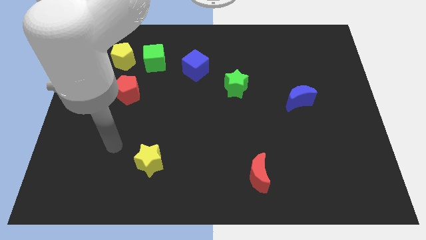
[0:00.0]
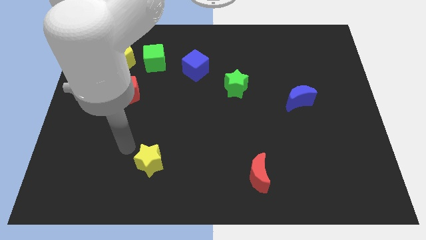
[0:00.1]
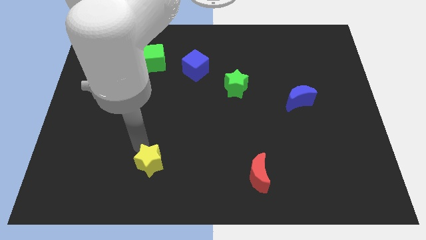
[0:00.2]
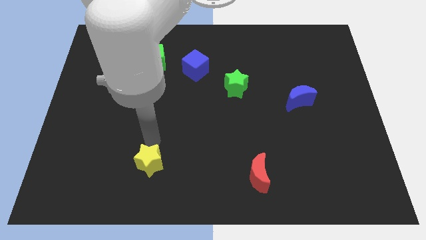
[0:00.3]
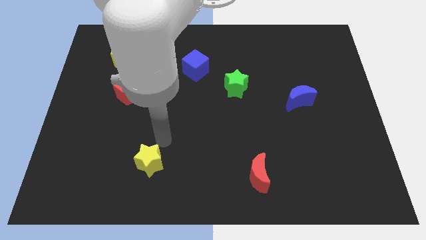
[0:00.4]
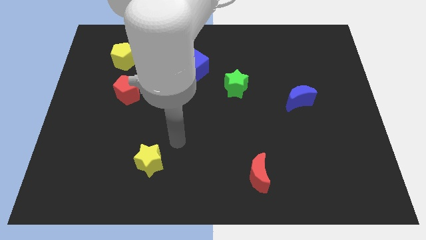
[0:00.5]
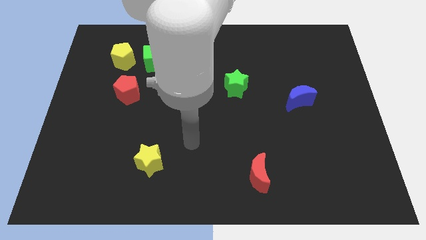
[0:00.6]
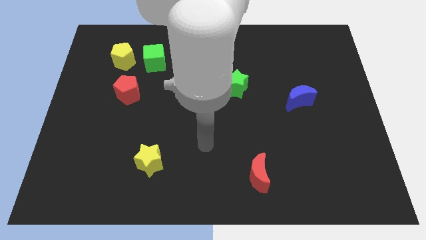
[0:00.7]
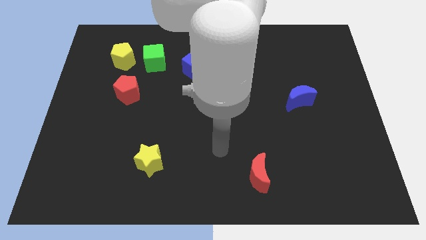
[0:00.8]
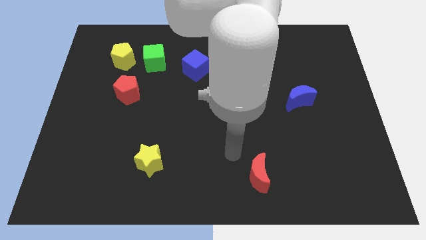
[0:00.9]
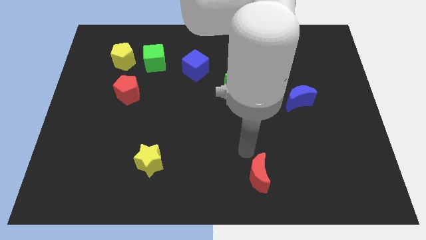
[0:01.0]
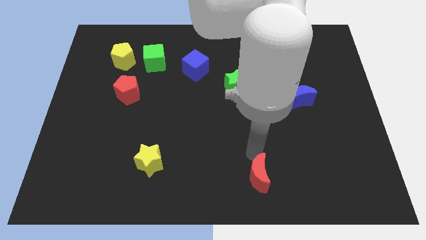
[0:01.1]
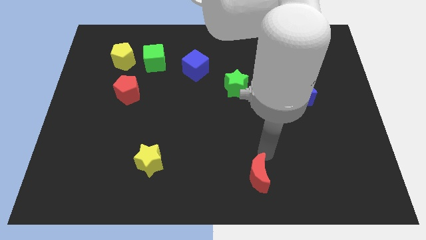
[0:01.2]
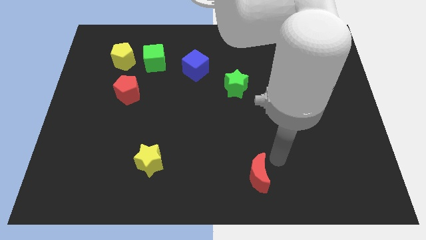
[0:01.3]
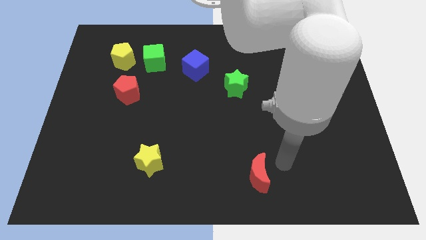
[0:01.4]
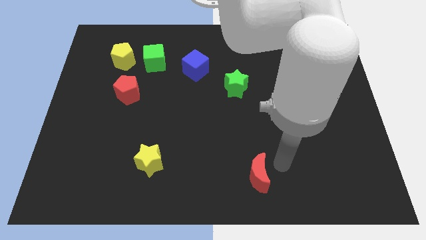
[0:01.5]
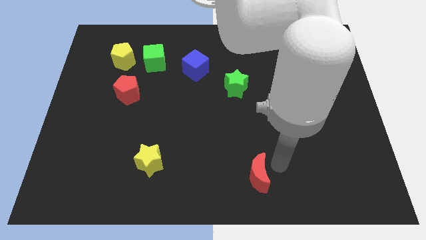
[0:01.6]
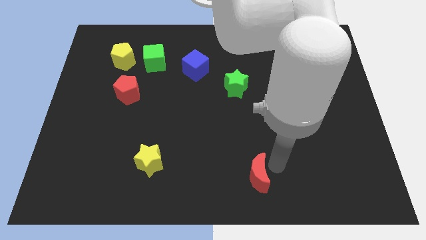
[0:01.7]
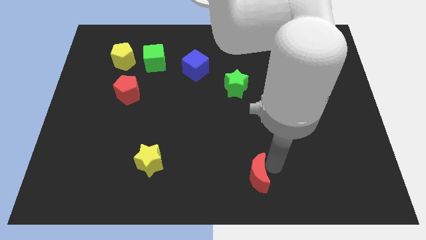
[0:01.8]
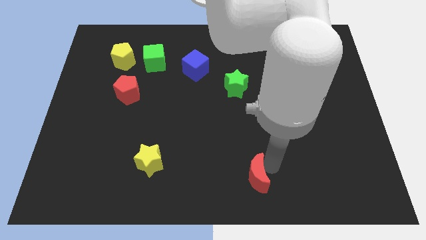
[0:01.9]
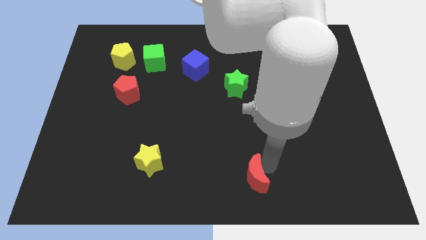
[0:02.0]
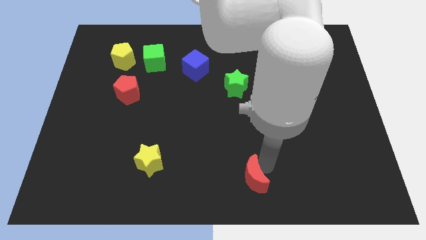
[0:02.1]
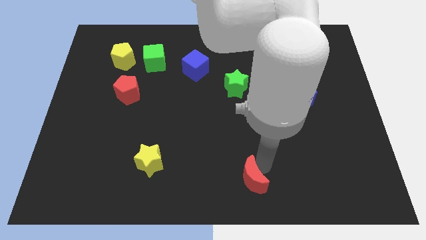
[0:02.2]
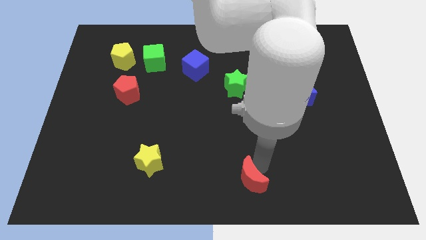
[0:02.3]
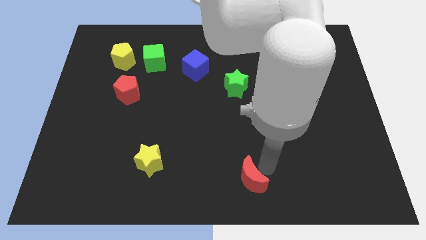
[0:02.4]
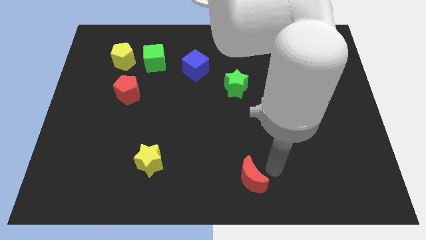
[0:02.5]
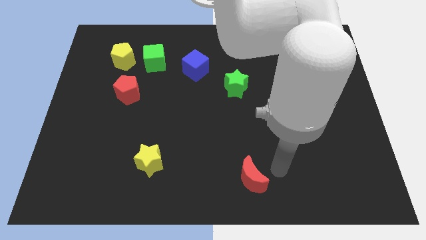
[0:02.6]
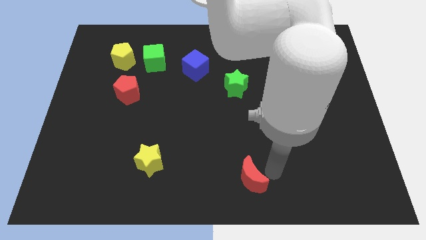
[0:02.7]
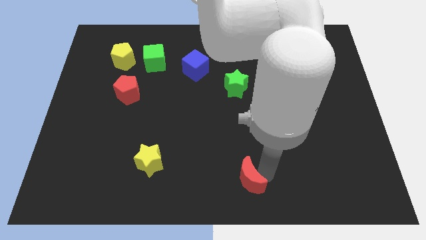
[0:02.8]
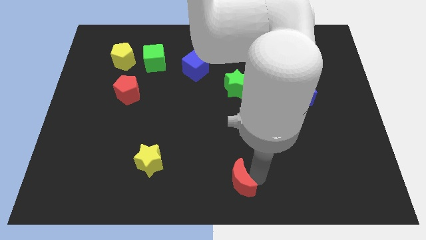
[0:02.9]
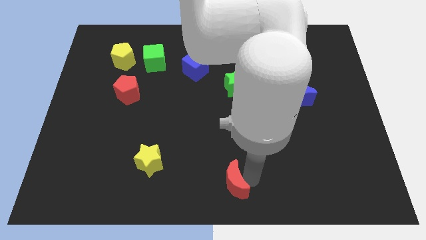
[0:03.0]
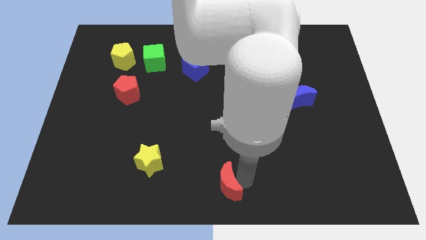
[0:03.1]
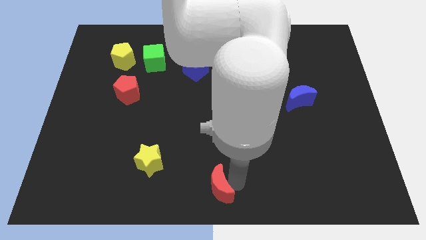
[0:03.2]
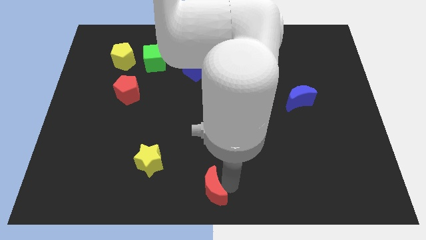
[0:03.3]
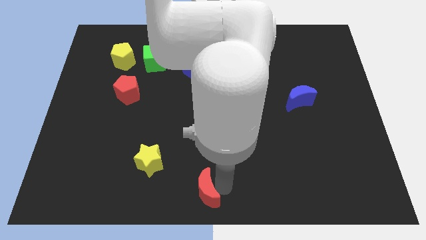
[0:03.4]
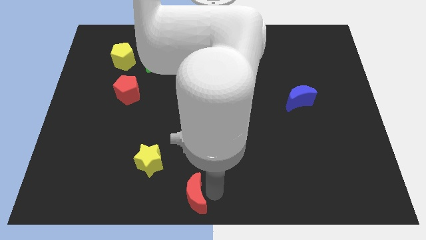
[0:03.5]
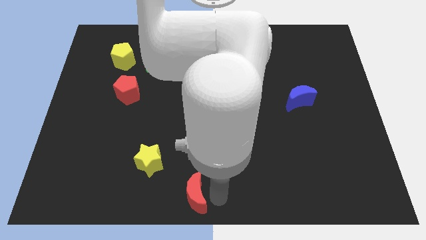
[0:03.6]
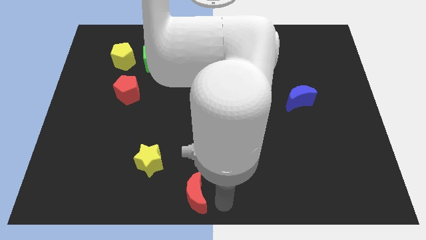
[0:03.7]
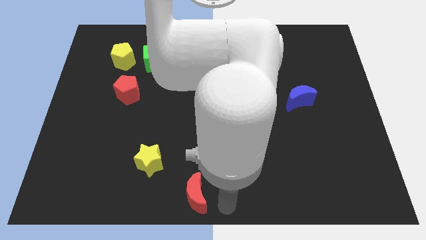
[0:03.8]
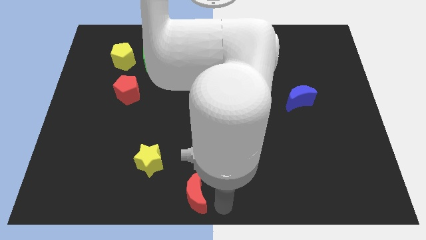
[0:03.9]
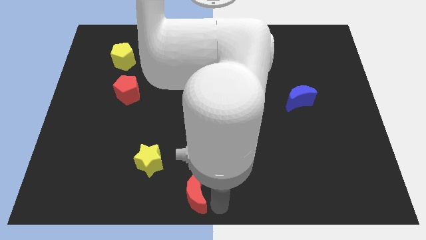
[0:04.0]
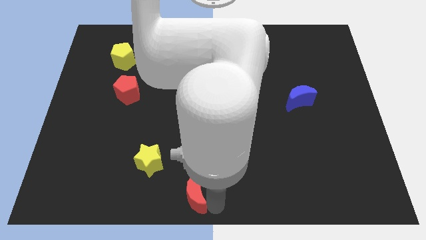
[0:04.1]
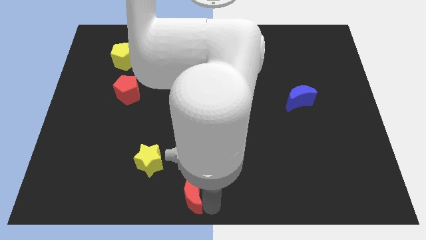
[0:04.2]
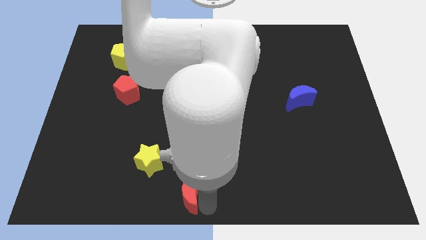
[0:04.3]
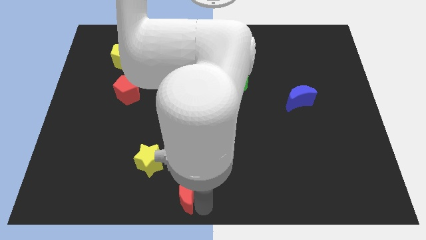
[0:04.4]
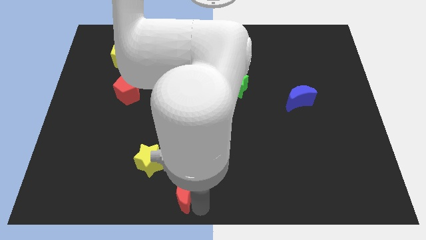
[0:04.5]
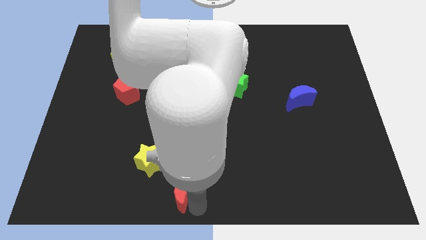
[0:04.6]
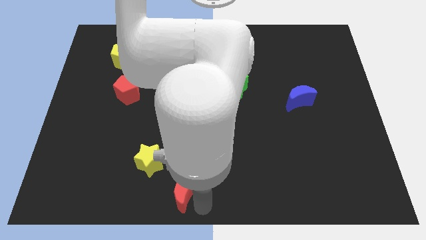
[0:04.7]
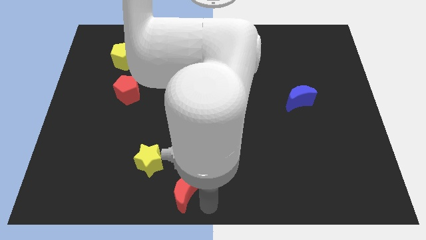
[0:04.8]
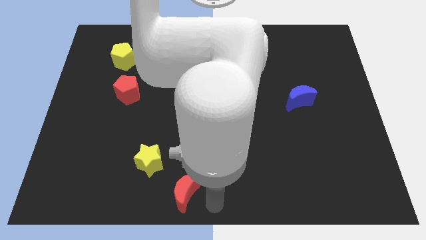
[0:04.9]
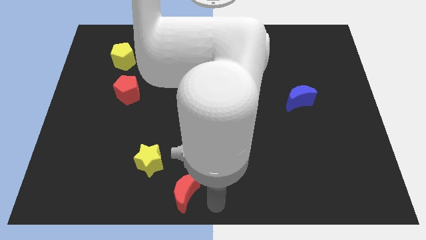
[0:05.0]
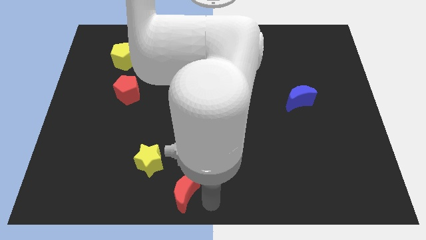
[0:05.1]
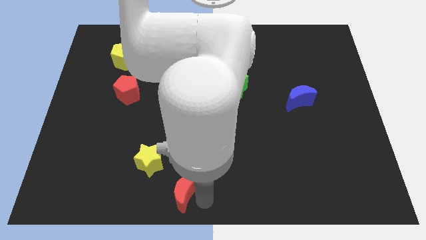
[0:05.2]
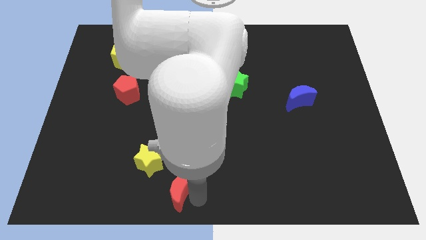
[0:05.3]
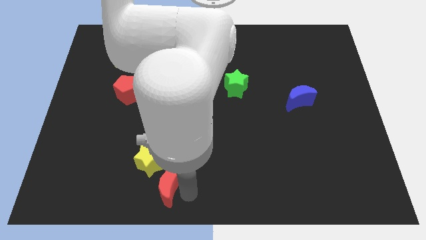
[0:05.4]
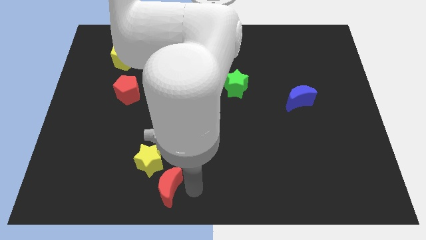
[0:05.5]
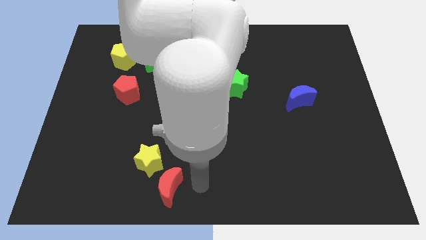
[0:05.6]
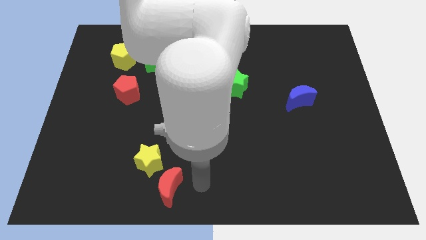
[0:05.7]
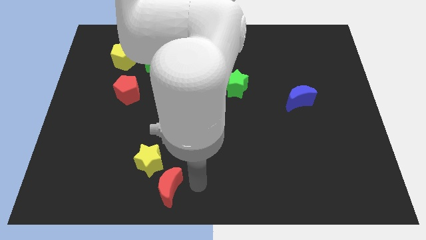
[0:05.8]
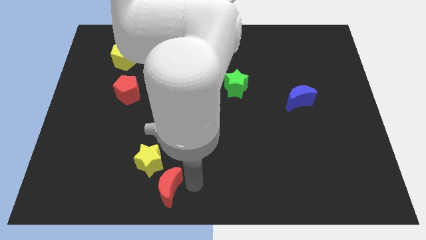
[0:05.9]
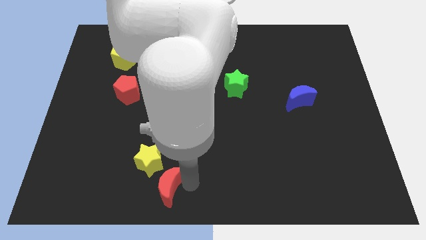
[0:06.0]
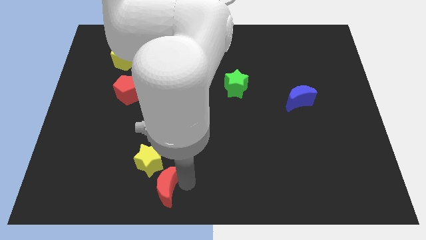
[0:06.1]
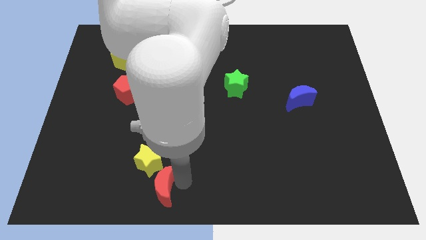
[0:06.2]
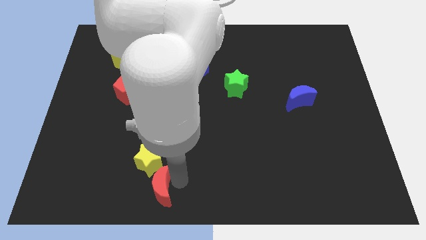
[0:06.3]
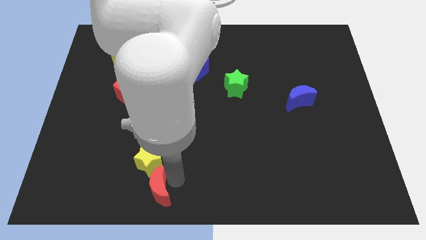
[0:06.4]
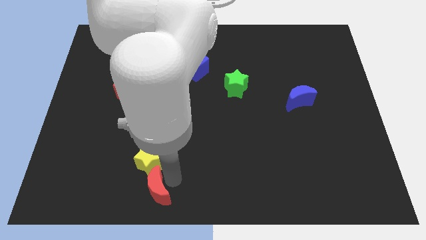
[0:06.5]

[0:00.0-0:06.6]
push the red moon left

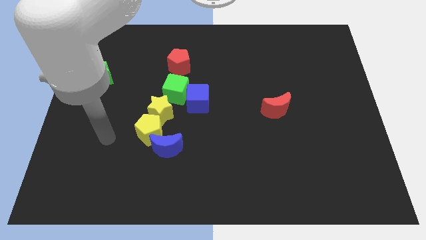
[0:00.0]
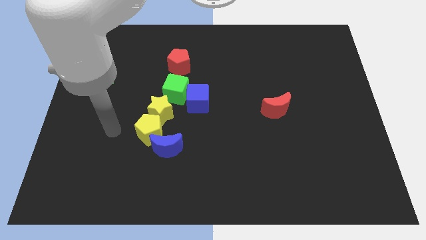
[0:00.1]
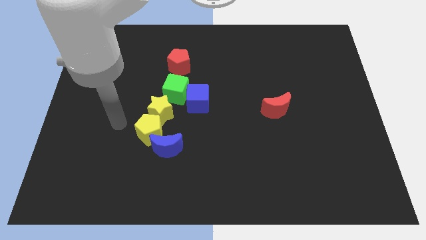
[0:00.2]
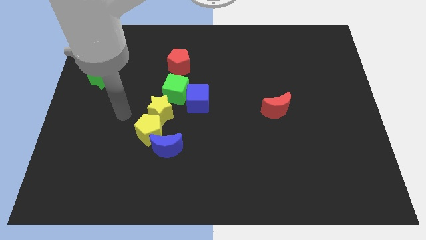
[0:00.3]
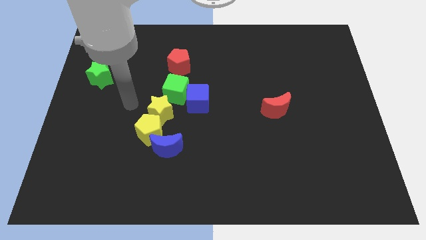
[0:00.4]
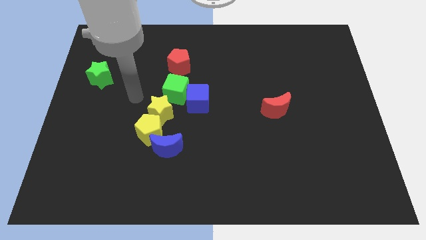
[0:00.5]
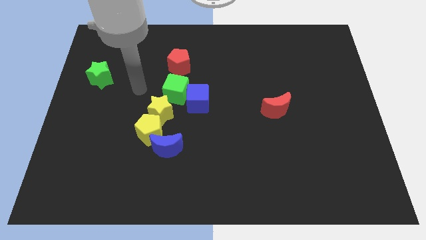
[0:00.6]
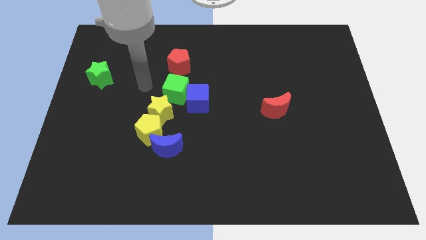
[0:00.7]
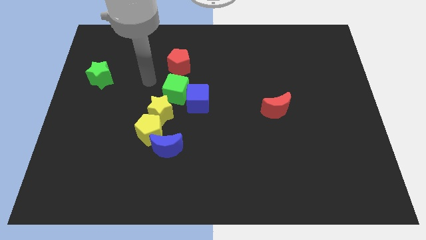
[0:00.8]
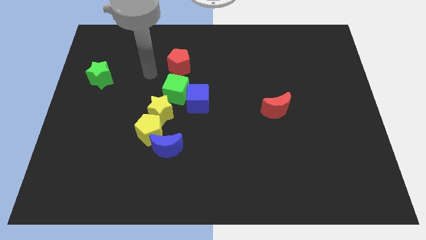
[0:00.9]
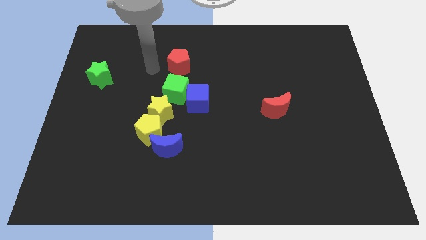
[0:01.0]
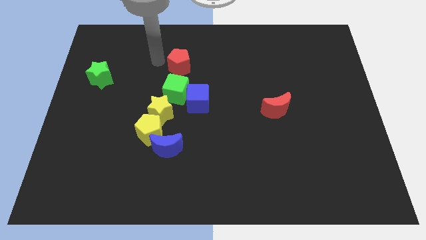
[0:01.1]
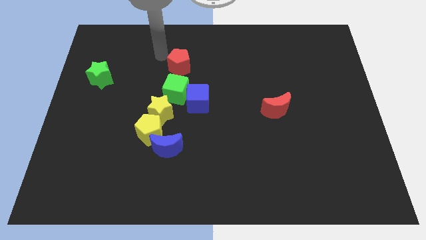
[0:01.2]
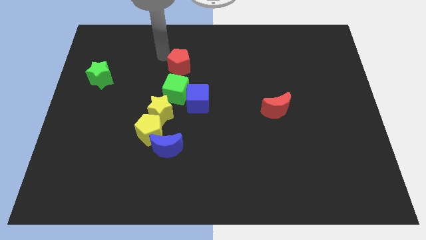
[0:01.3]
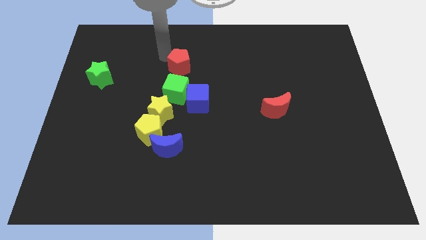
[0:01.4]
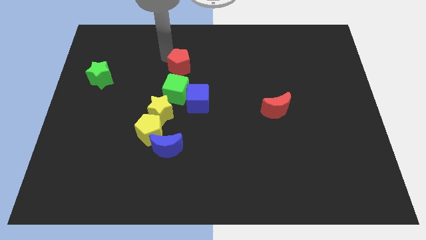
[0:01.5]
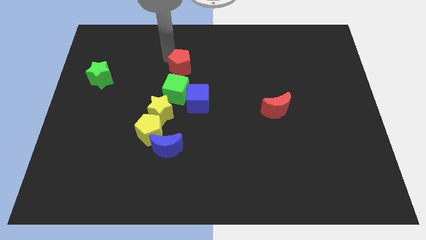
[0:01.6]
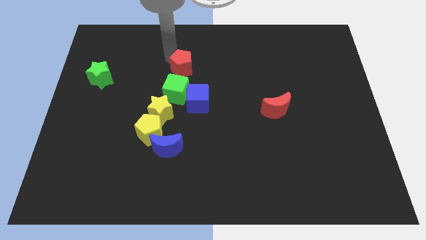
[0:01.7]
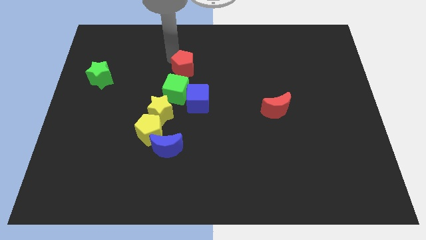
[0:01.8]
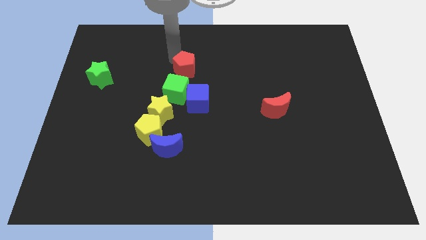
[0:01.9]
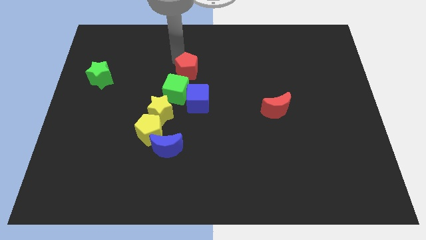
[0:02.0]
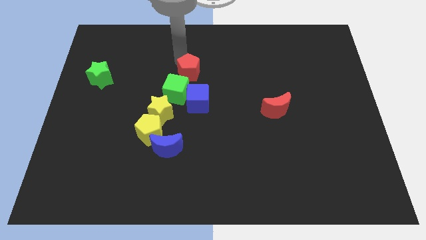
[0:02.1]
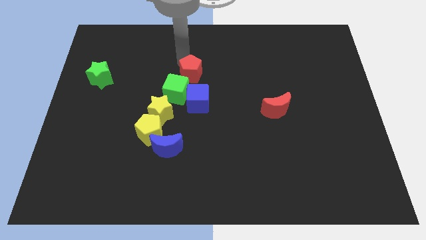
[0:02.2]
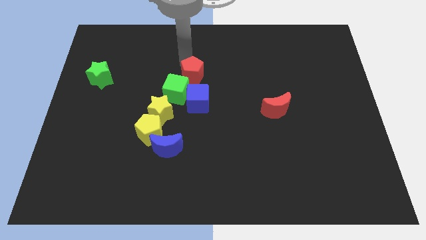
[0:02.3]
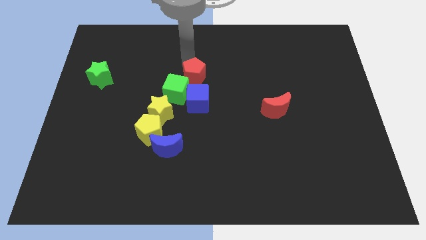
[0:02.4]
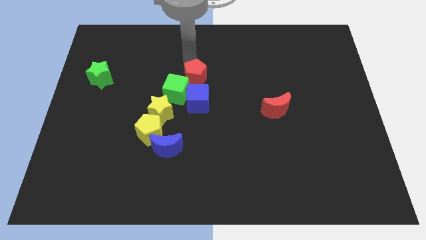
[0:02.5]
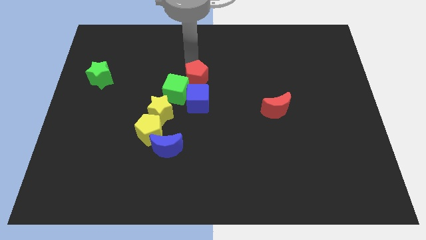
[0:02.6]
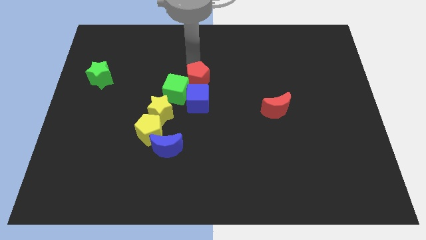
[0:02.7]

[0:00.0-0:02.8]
push the red pentagon slightly downwards and then to the right
